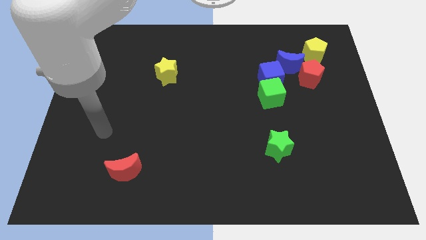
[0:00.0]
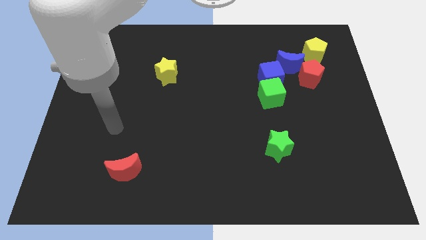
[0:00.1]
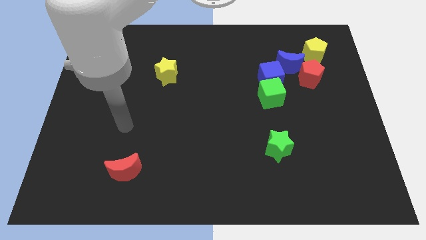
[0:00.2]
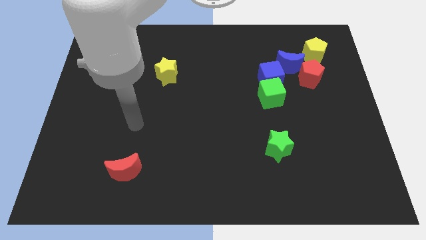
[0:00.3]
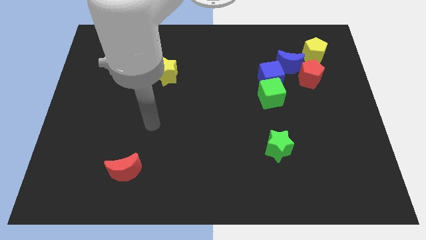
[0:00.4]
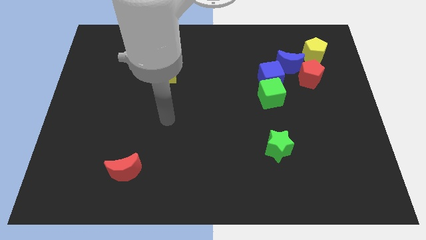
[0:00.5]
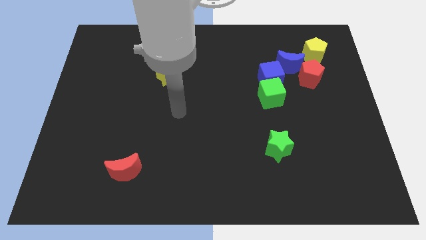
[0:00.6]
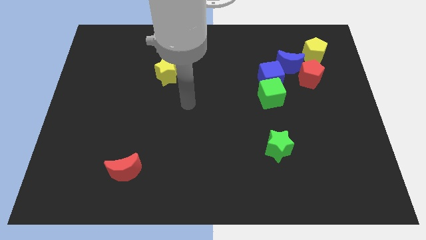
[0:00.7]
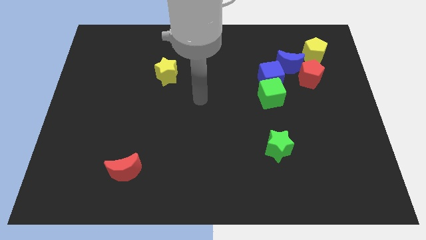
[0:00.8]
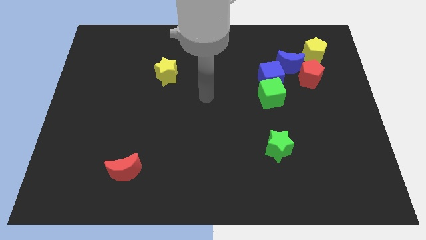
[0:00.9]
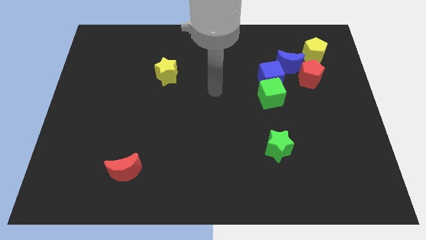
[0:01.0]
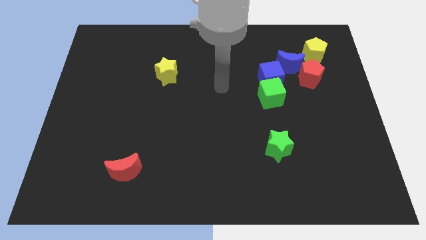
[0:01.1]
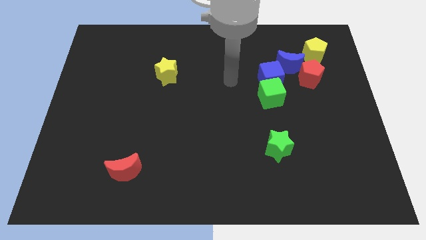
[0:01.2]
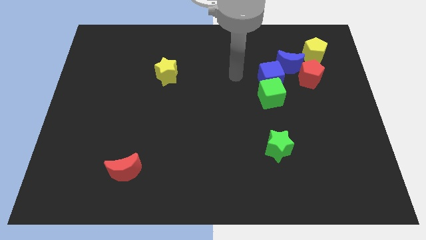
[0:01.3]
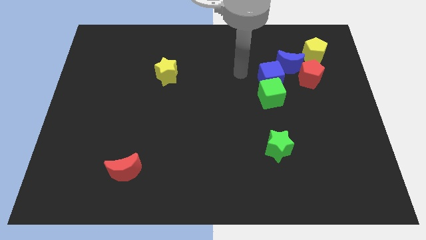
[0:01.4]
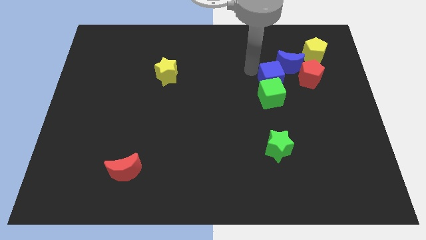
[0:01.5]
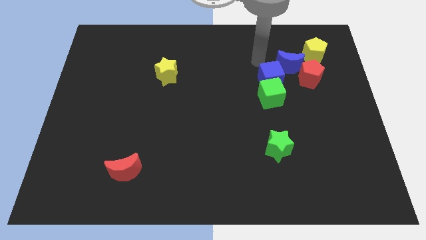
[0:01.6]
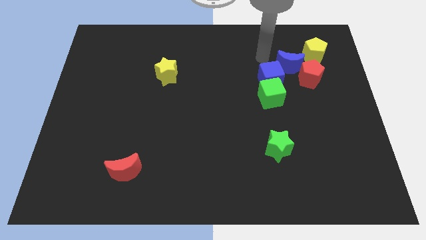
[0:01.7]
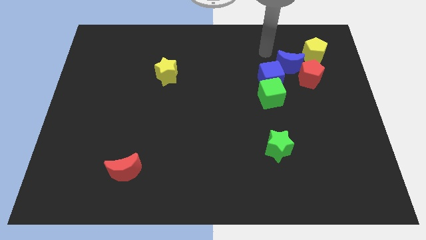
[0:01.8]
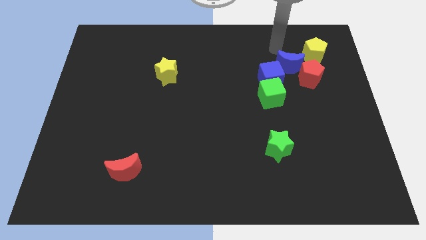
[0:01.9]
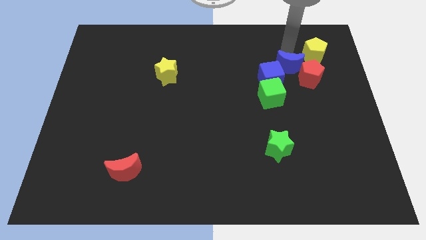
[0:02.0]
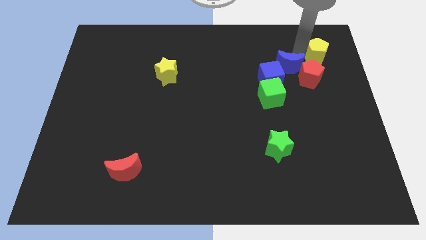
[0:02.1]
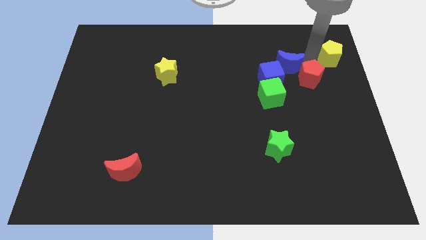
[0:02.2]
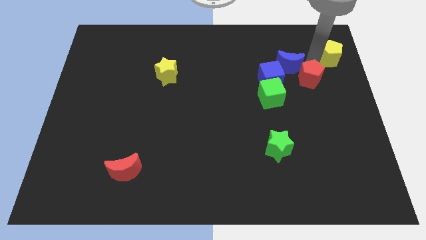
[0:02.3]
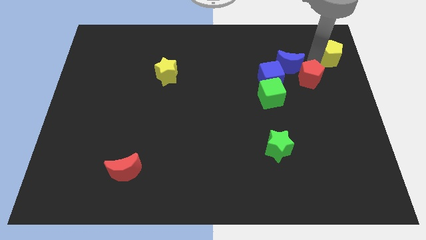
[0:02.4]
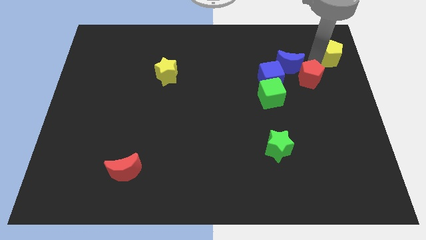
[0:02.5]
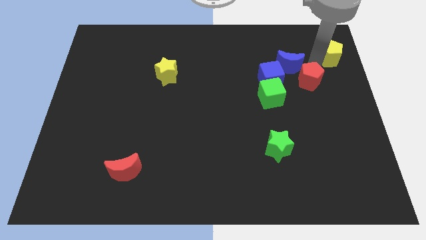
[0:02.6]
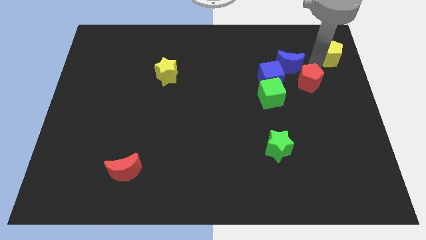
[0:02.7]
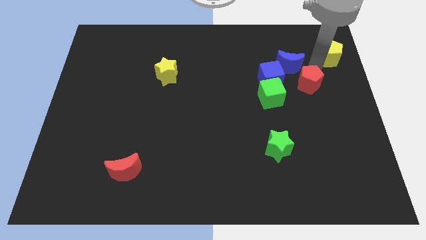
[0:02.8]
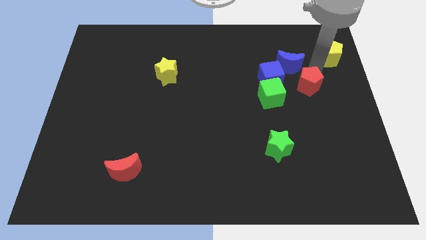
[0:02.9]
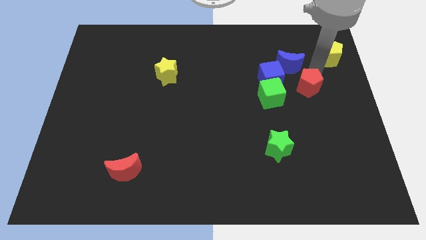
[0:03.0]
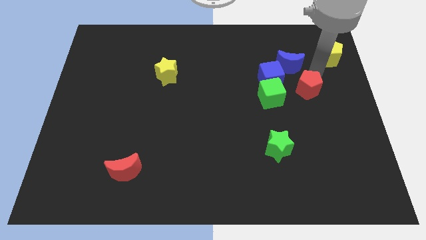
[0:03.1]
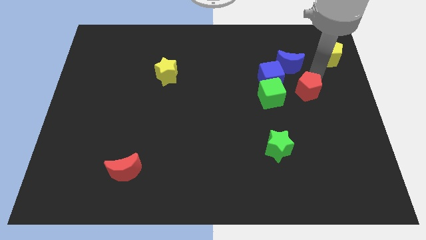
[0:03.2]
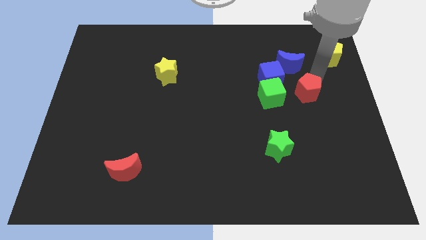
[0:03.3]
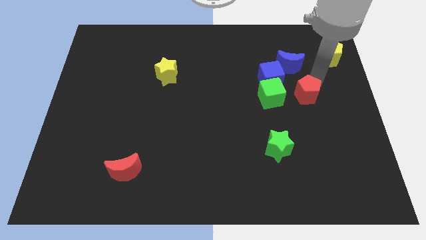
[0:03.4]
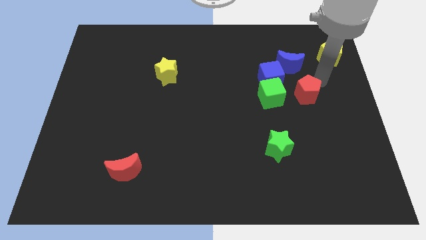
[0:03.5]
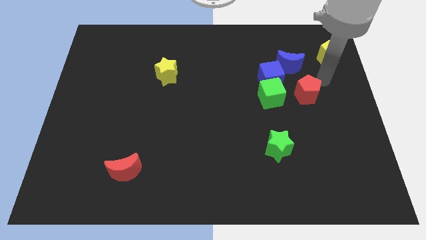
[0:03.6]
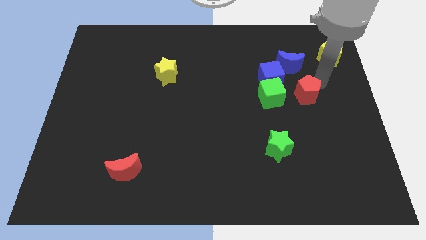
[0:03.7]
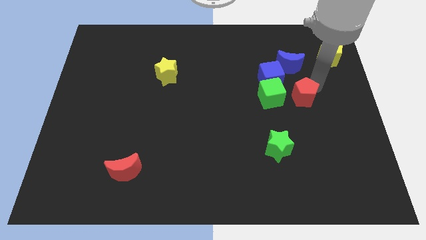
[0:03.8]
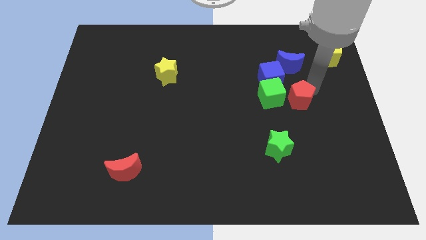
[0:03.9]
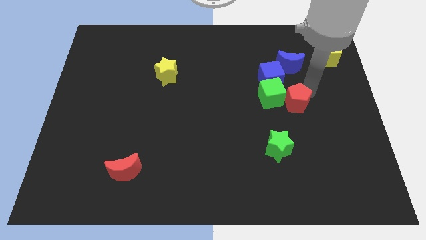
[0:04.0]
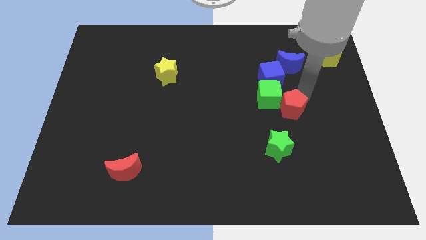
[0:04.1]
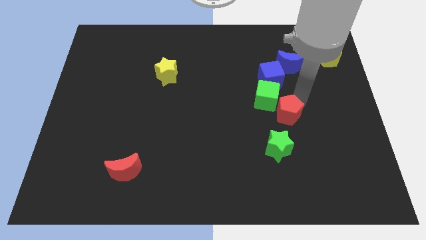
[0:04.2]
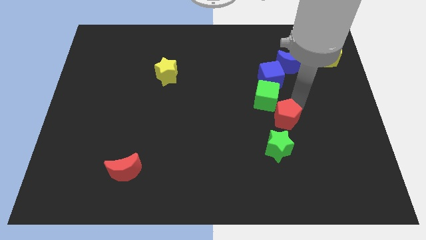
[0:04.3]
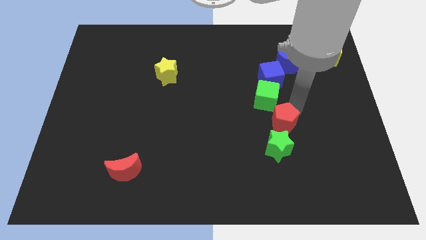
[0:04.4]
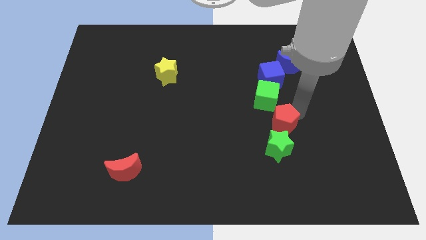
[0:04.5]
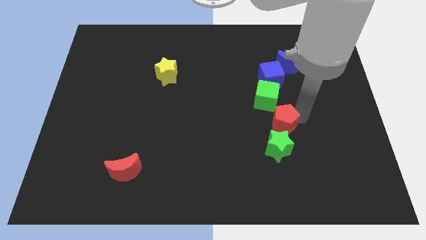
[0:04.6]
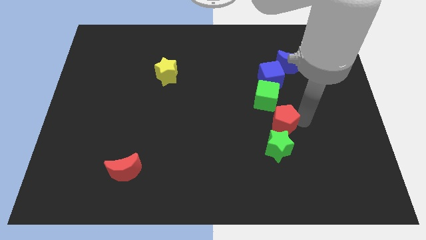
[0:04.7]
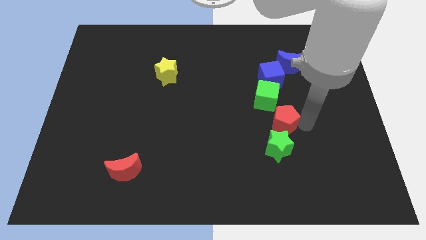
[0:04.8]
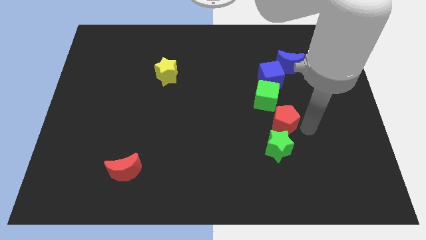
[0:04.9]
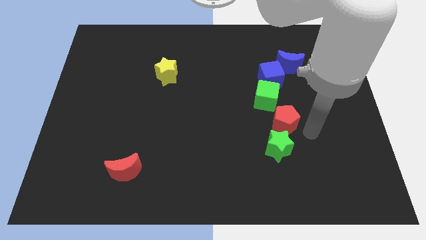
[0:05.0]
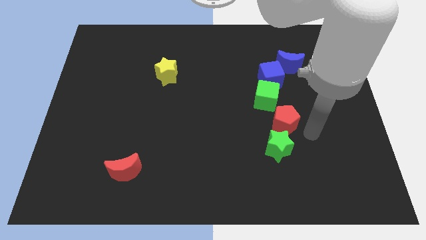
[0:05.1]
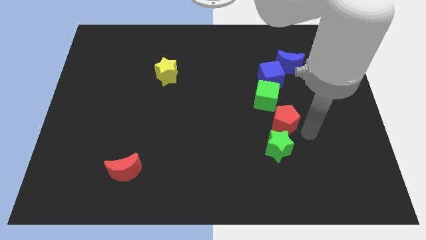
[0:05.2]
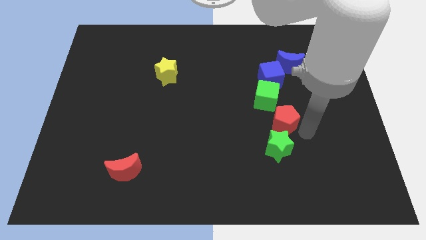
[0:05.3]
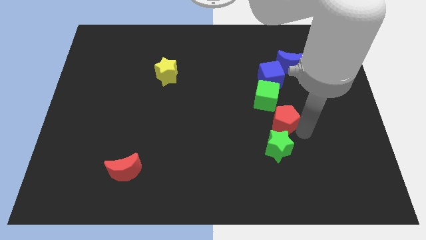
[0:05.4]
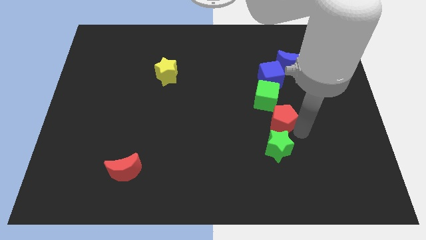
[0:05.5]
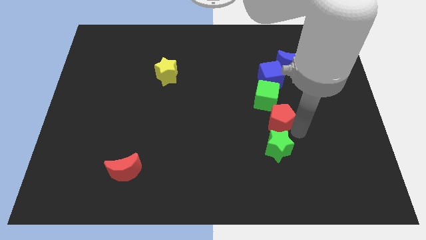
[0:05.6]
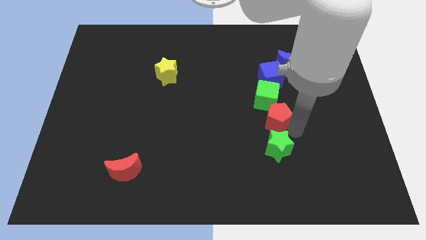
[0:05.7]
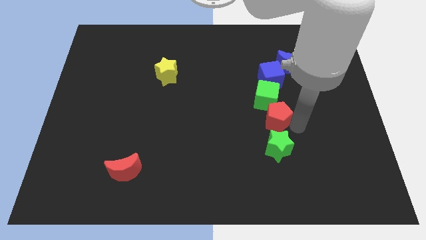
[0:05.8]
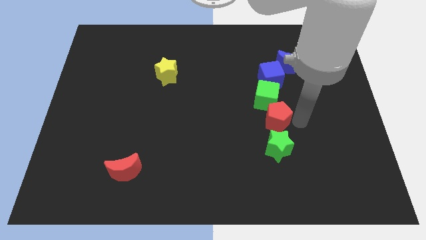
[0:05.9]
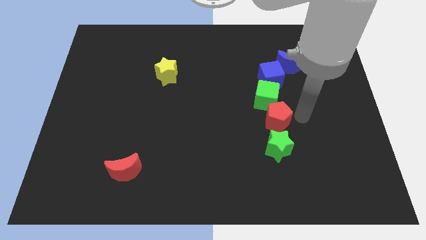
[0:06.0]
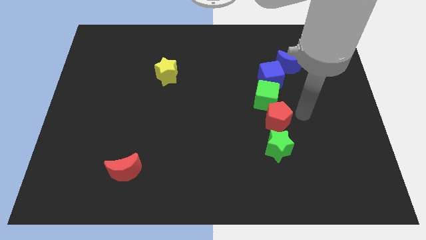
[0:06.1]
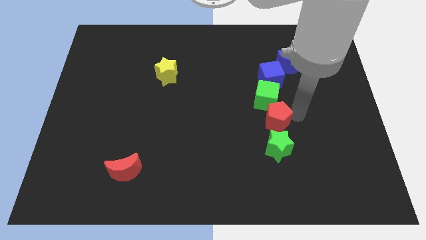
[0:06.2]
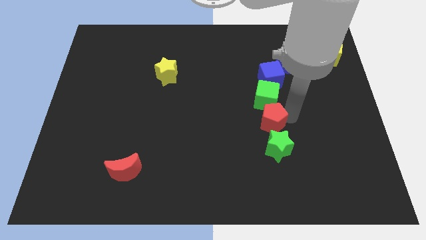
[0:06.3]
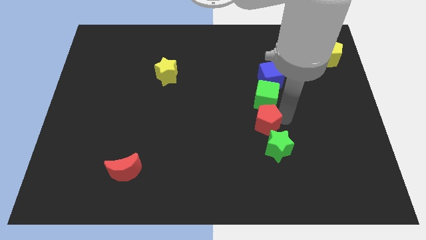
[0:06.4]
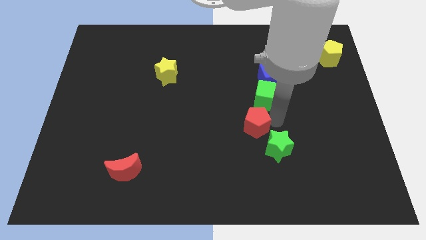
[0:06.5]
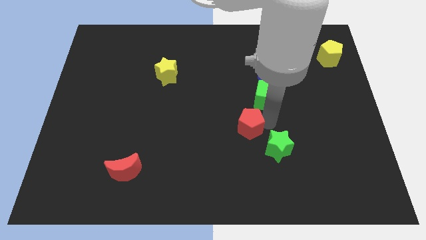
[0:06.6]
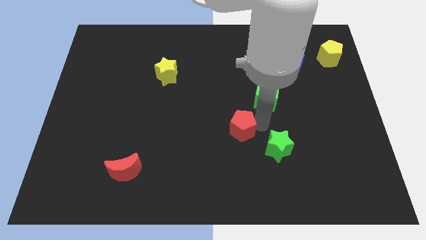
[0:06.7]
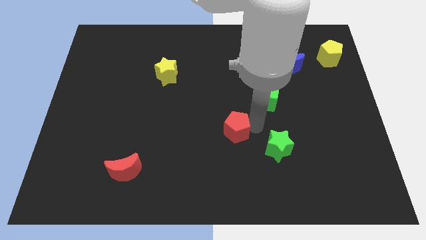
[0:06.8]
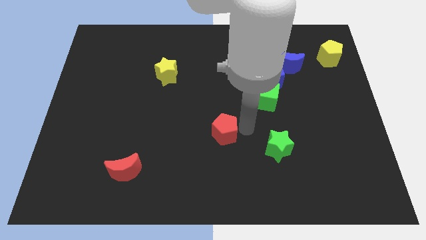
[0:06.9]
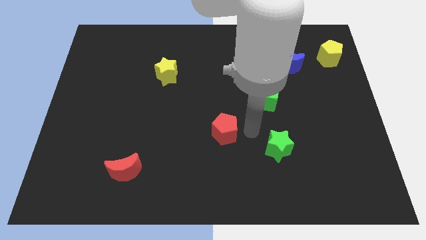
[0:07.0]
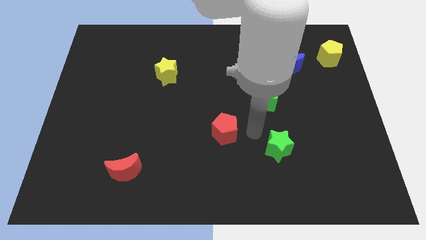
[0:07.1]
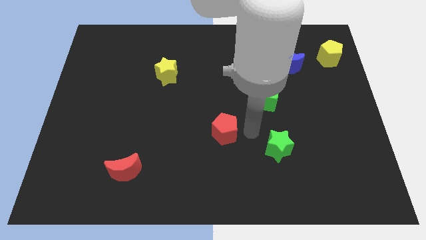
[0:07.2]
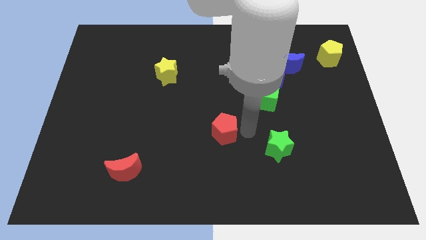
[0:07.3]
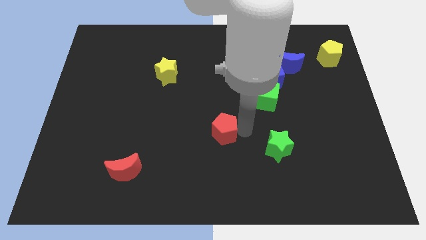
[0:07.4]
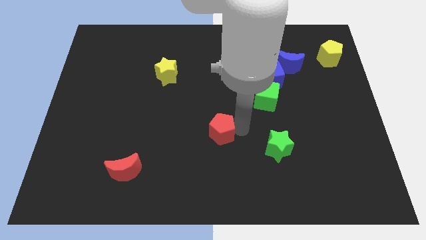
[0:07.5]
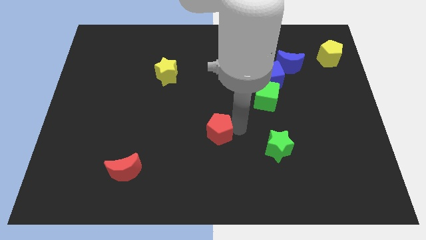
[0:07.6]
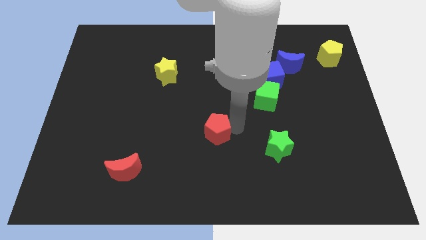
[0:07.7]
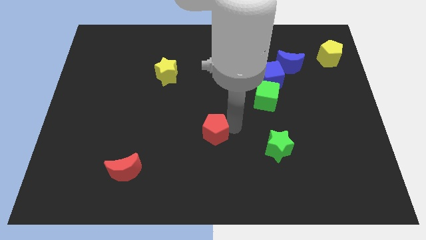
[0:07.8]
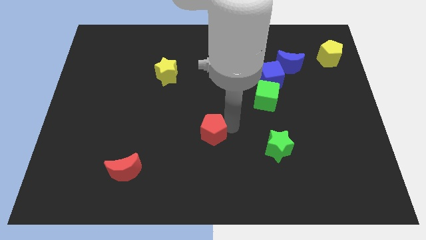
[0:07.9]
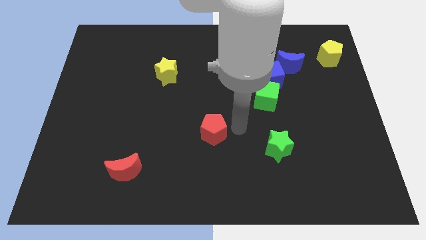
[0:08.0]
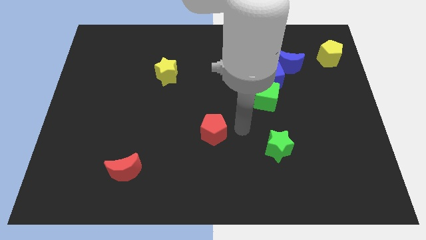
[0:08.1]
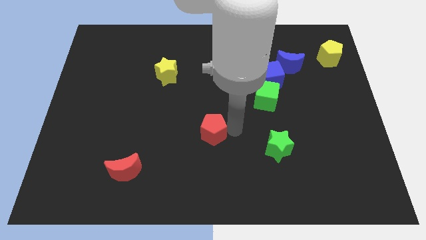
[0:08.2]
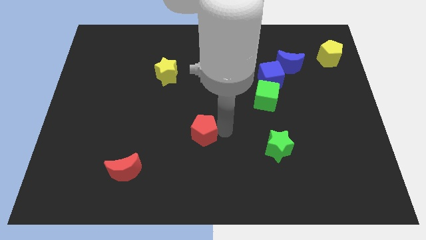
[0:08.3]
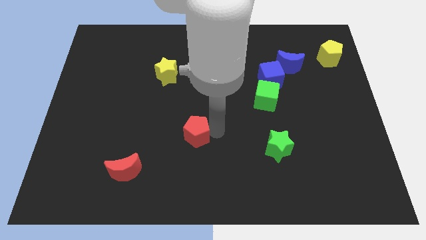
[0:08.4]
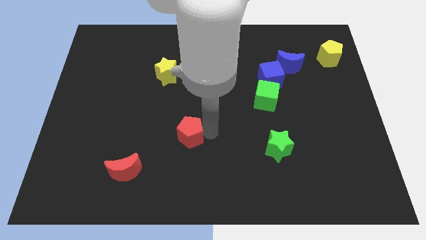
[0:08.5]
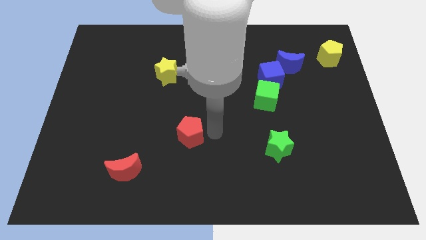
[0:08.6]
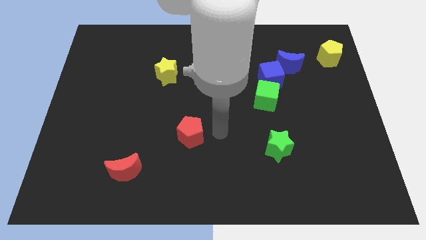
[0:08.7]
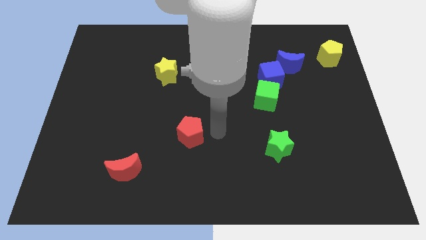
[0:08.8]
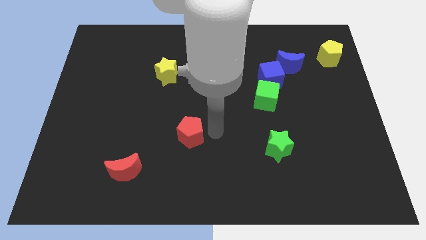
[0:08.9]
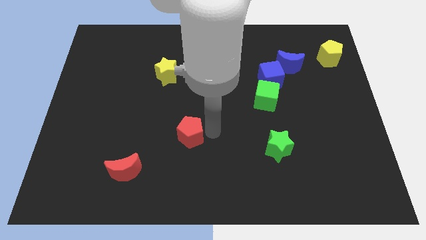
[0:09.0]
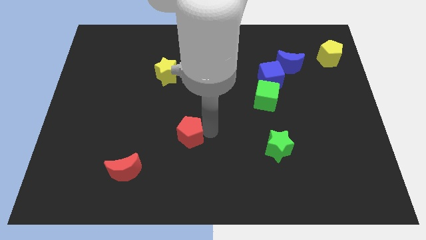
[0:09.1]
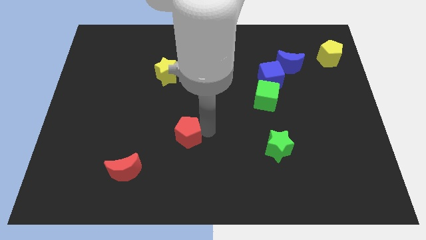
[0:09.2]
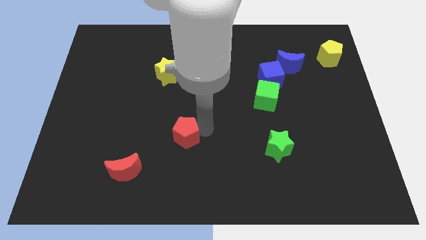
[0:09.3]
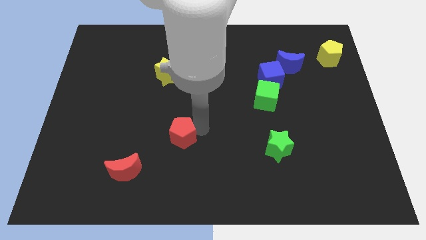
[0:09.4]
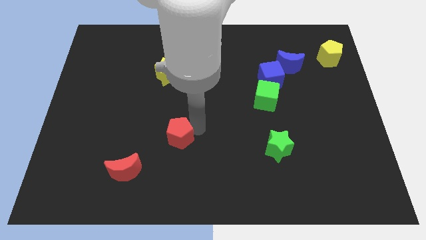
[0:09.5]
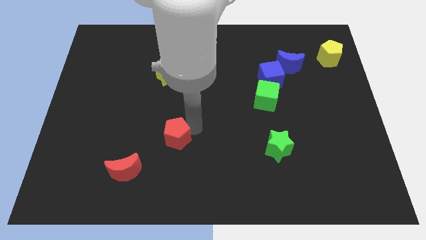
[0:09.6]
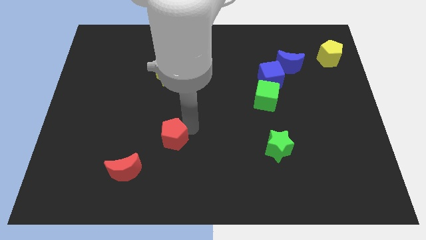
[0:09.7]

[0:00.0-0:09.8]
push the red pentagon to the top right of the red moon
